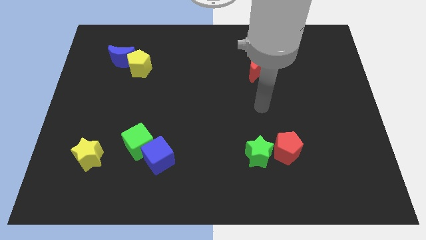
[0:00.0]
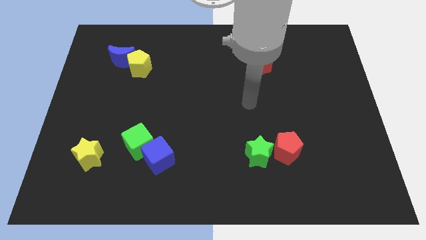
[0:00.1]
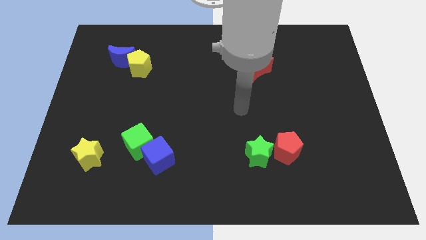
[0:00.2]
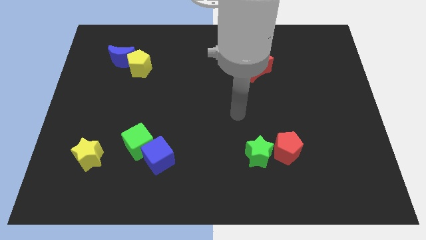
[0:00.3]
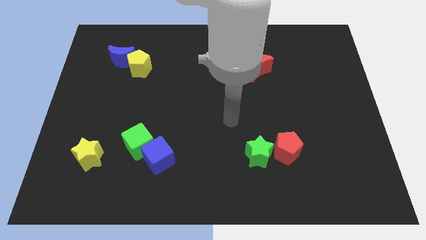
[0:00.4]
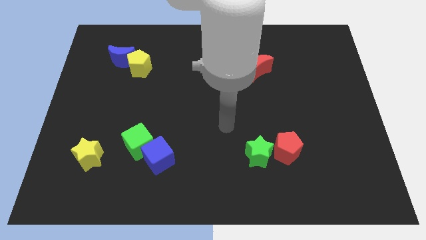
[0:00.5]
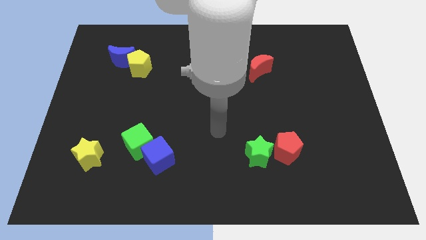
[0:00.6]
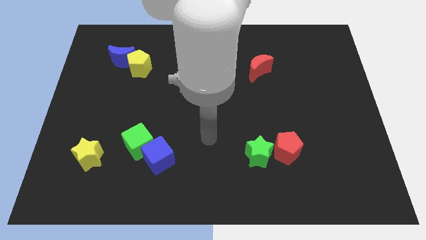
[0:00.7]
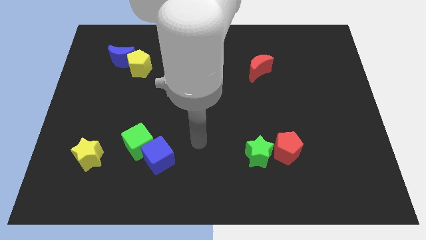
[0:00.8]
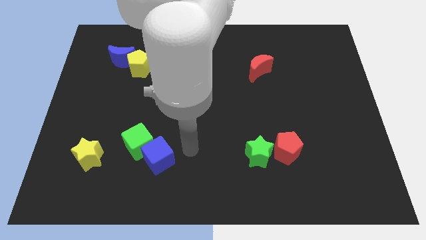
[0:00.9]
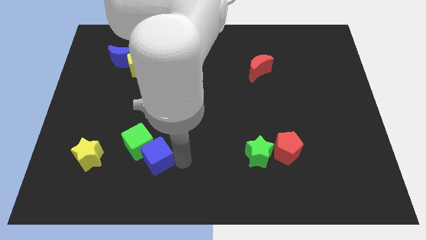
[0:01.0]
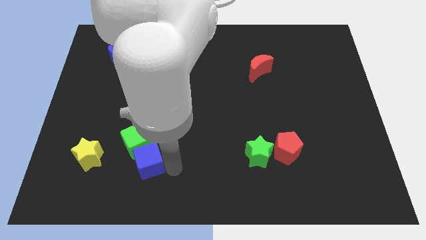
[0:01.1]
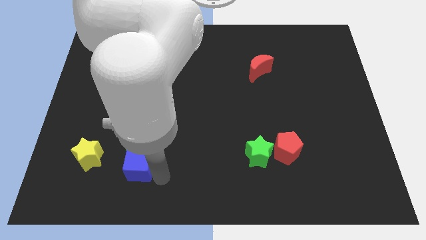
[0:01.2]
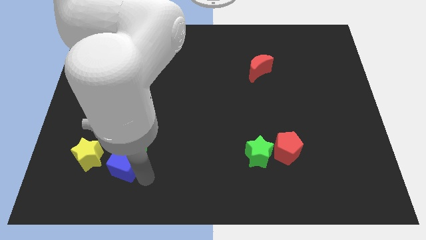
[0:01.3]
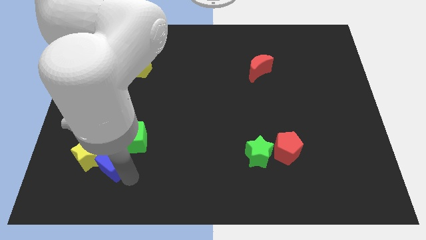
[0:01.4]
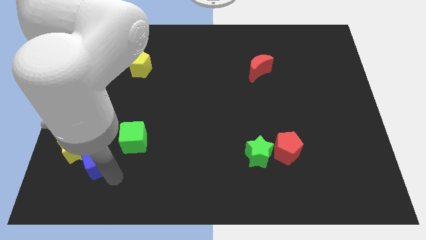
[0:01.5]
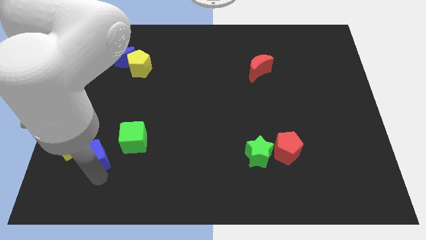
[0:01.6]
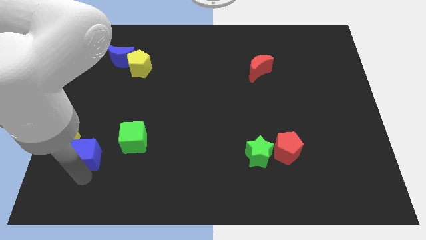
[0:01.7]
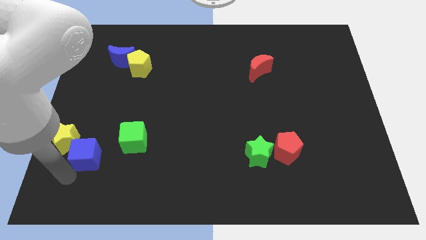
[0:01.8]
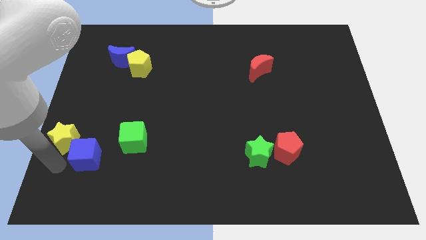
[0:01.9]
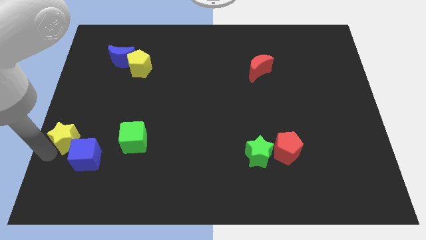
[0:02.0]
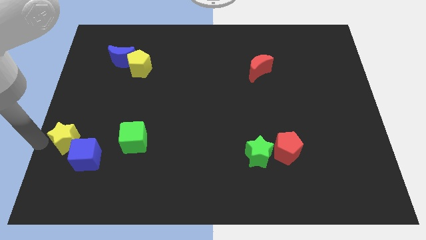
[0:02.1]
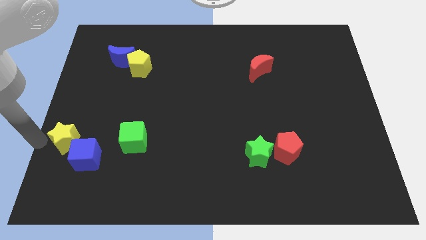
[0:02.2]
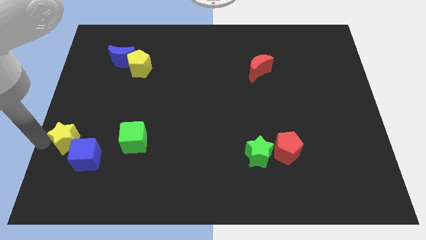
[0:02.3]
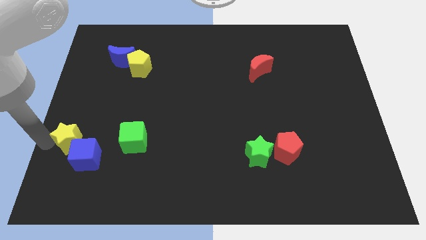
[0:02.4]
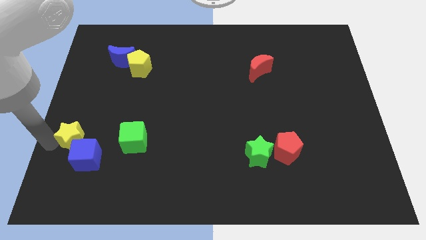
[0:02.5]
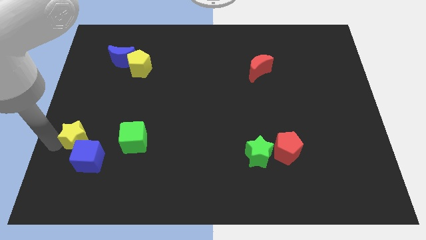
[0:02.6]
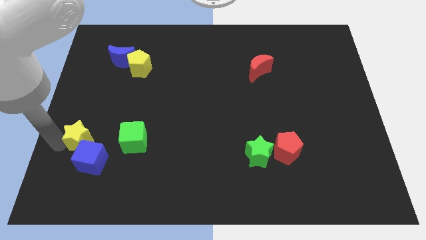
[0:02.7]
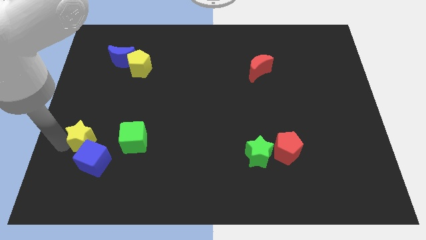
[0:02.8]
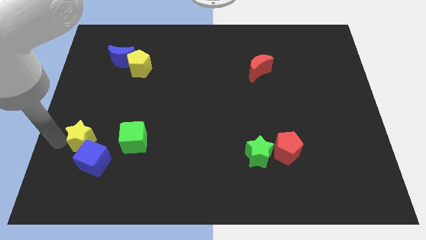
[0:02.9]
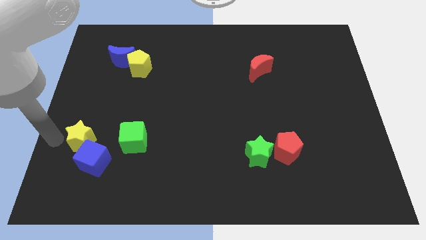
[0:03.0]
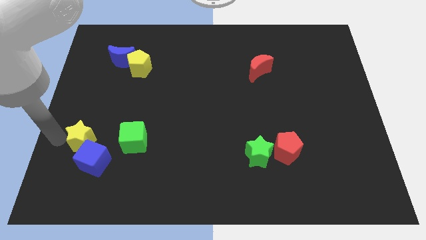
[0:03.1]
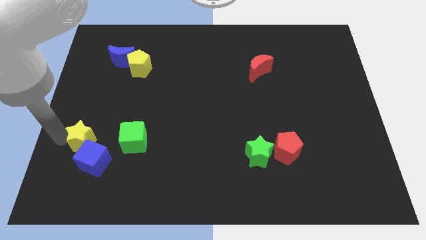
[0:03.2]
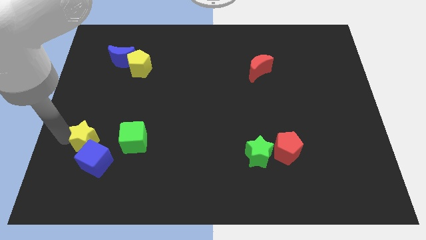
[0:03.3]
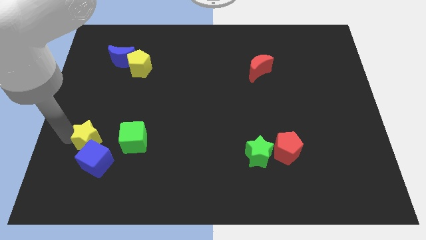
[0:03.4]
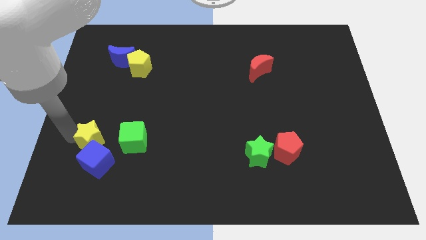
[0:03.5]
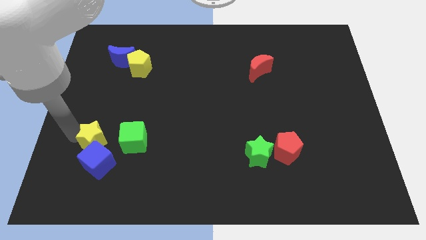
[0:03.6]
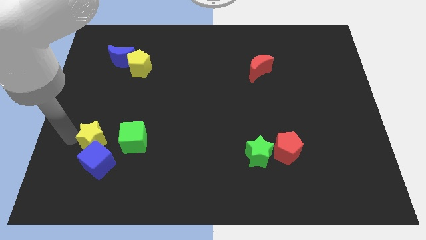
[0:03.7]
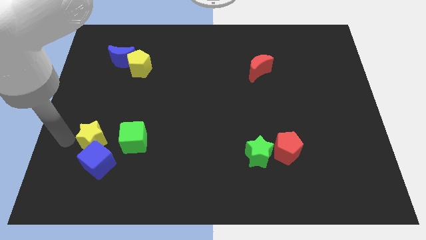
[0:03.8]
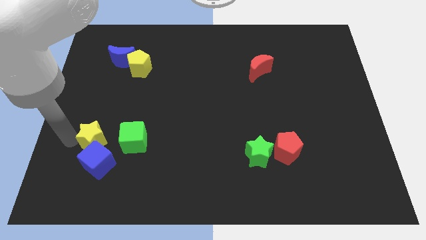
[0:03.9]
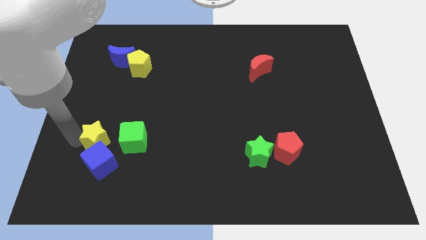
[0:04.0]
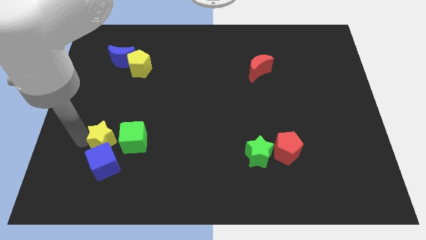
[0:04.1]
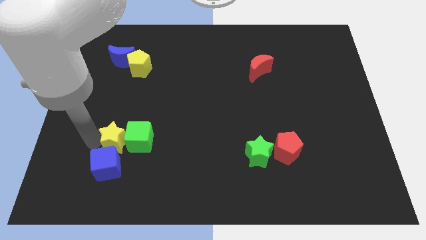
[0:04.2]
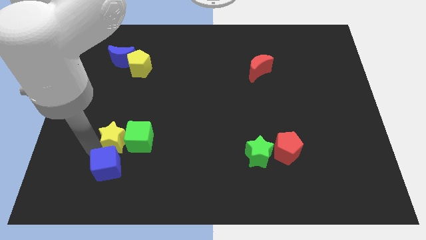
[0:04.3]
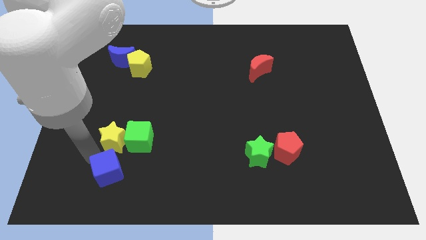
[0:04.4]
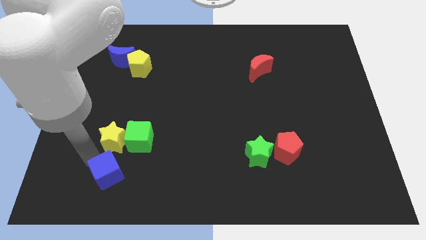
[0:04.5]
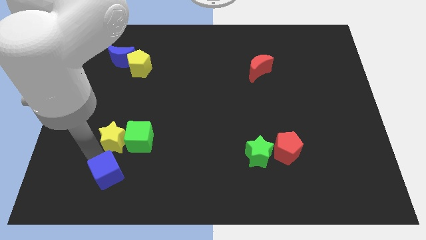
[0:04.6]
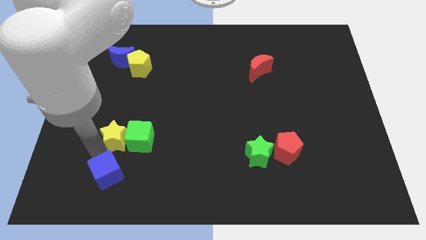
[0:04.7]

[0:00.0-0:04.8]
slide the yellow star diagonally upwards and right a little

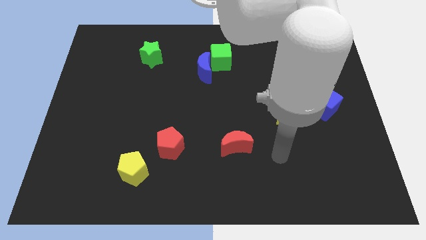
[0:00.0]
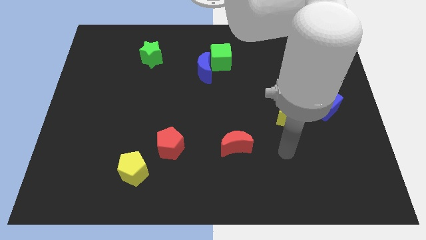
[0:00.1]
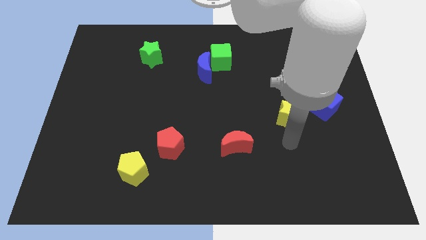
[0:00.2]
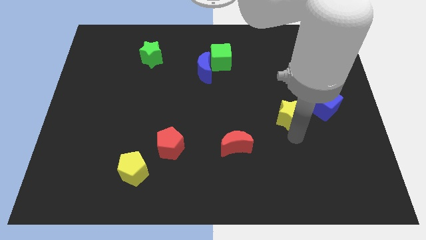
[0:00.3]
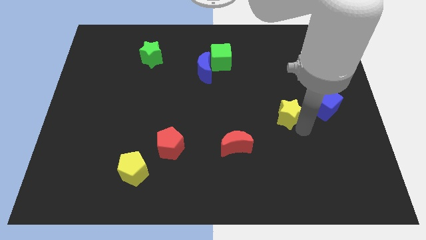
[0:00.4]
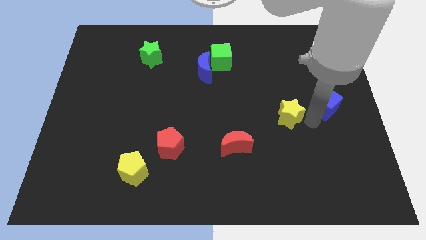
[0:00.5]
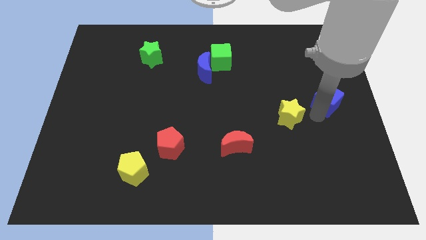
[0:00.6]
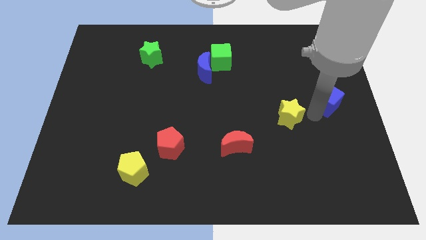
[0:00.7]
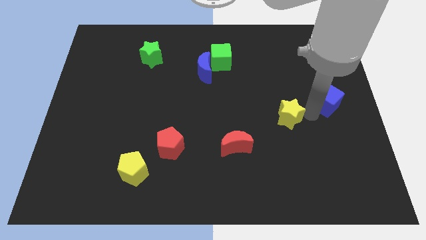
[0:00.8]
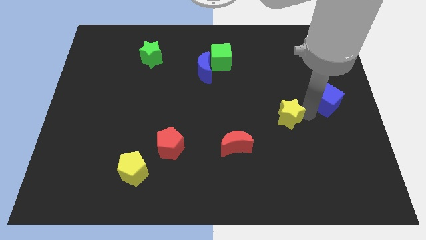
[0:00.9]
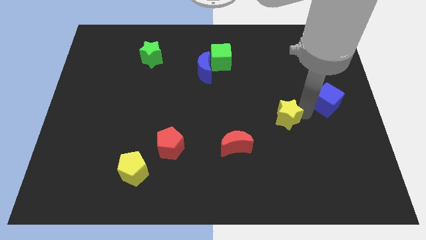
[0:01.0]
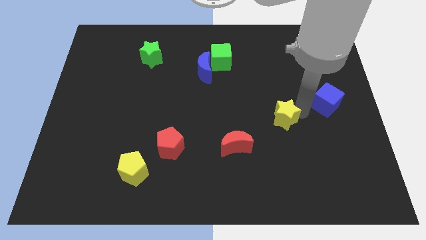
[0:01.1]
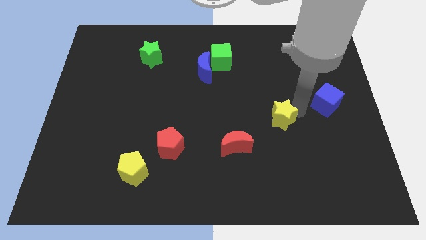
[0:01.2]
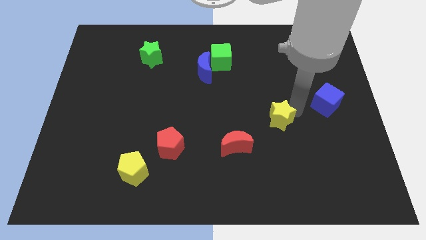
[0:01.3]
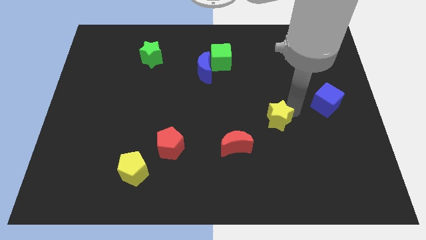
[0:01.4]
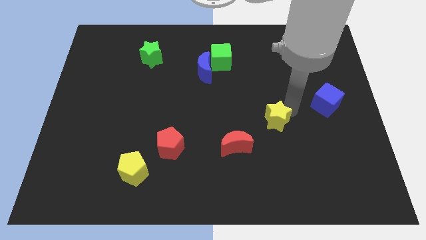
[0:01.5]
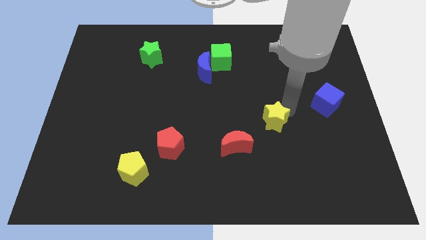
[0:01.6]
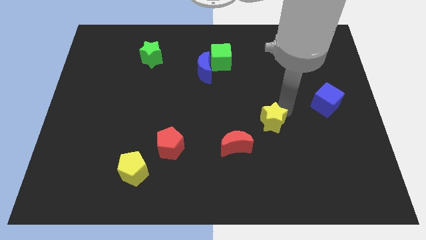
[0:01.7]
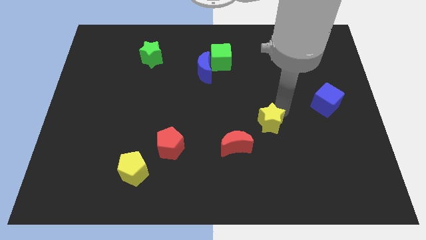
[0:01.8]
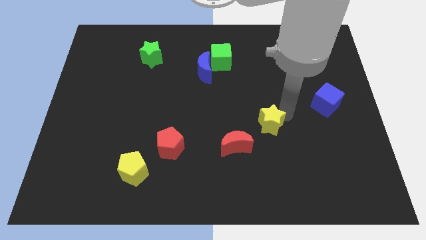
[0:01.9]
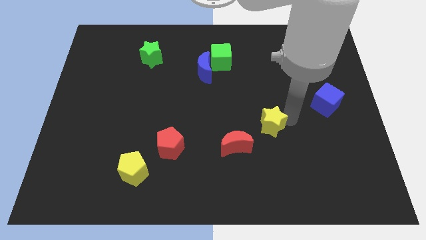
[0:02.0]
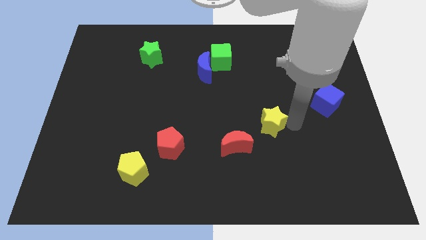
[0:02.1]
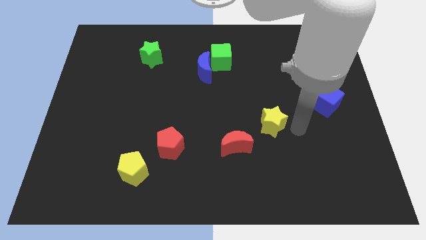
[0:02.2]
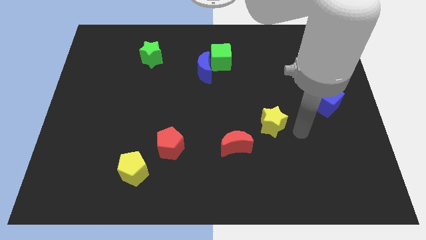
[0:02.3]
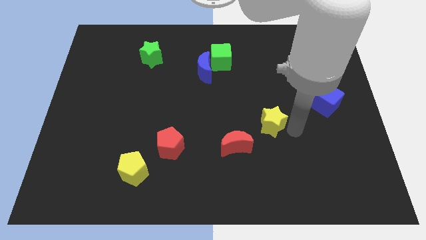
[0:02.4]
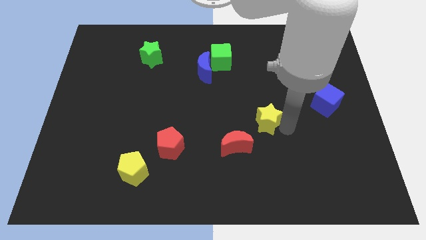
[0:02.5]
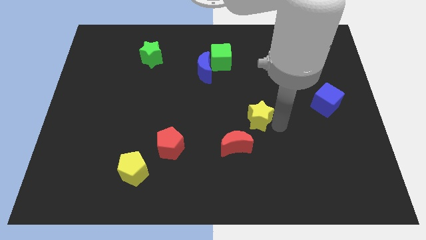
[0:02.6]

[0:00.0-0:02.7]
slightly move the yellow star to the left
